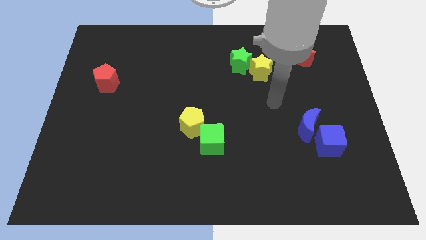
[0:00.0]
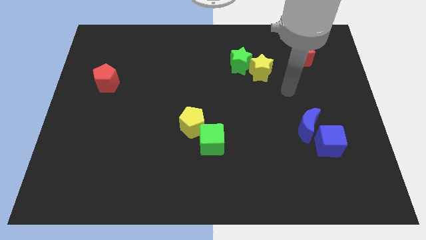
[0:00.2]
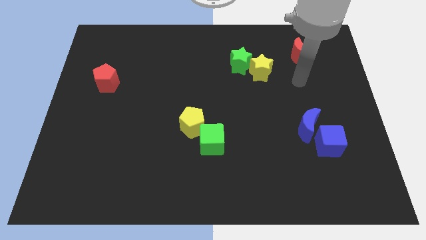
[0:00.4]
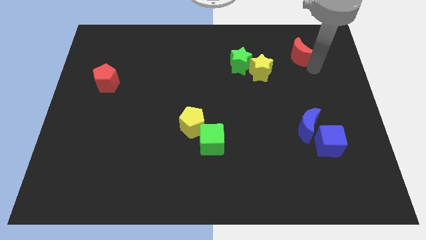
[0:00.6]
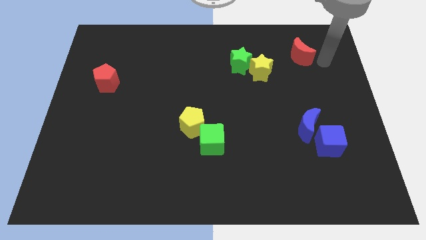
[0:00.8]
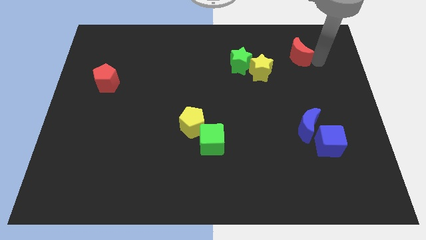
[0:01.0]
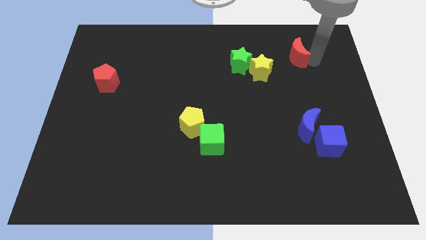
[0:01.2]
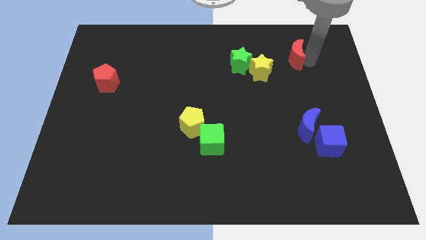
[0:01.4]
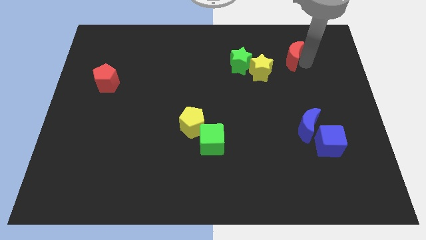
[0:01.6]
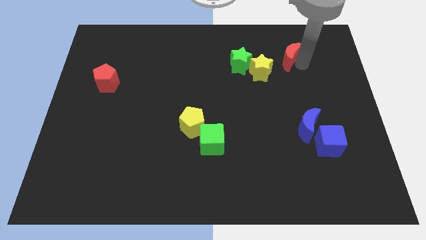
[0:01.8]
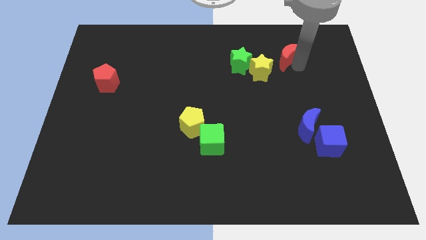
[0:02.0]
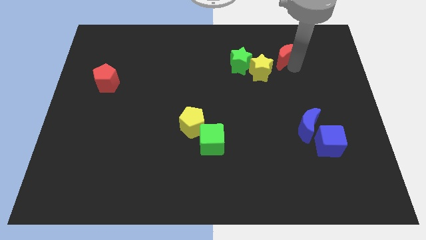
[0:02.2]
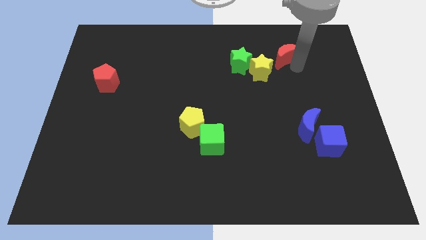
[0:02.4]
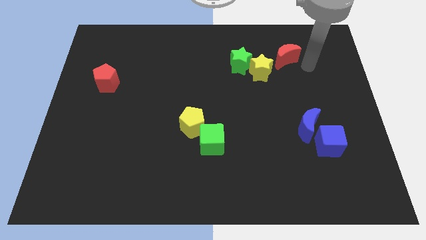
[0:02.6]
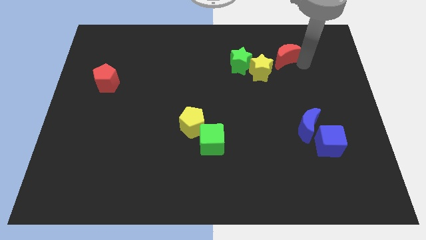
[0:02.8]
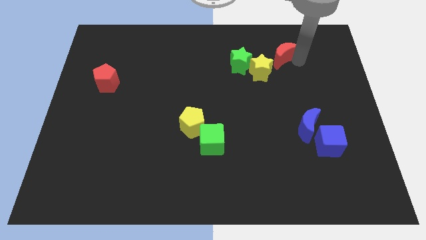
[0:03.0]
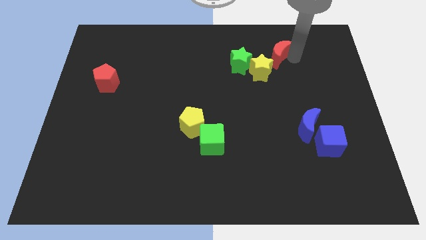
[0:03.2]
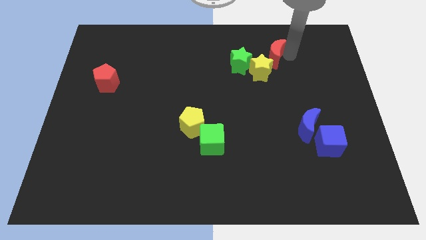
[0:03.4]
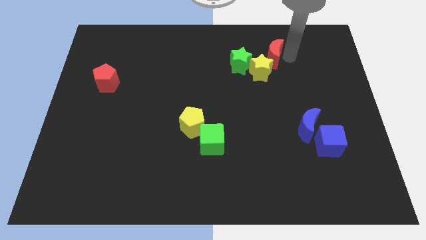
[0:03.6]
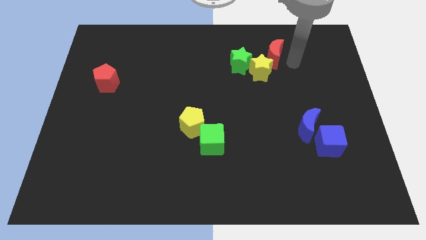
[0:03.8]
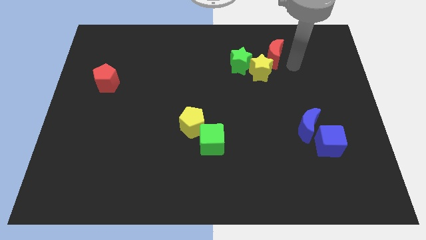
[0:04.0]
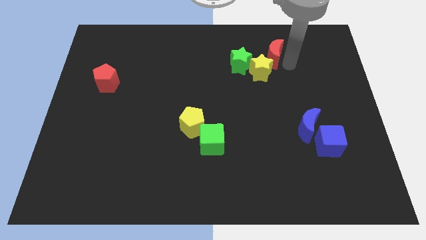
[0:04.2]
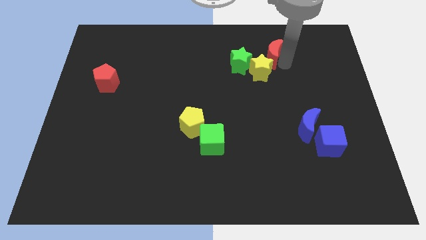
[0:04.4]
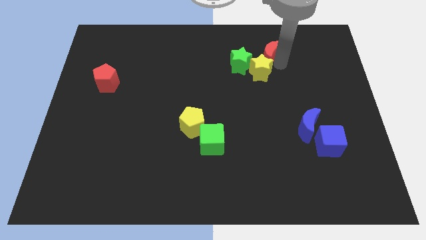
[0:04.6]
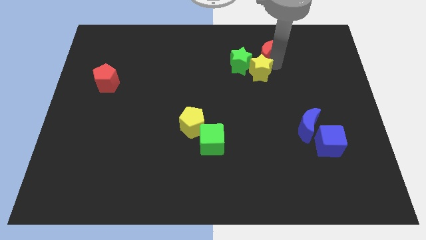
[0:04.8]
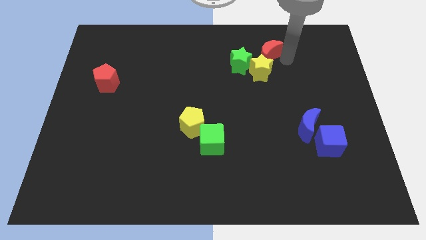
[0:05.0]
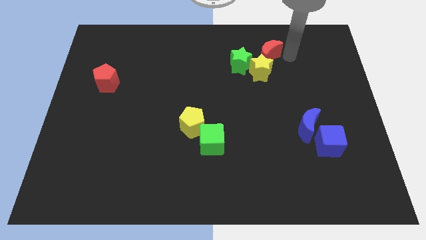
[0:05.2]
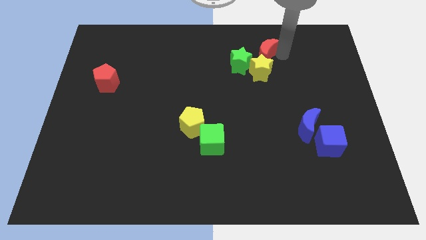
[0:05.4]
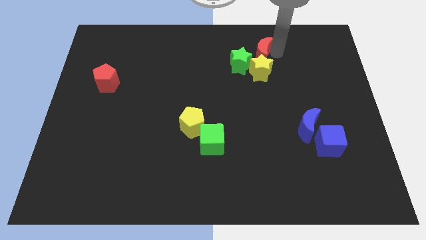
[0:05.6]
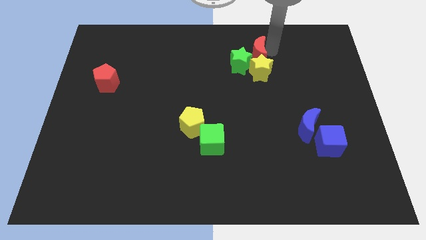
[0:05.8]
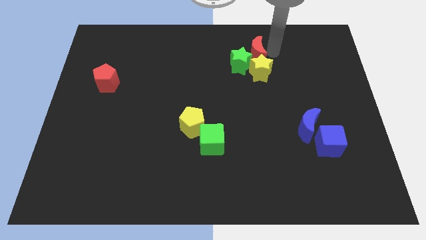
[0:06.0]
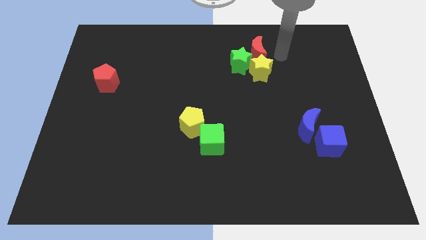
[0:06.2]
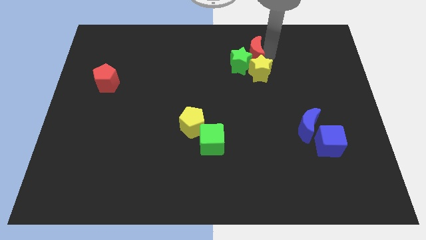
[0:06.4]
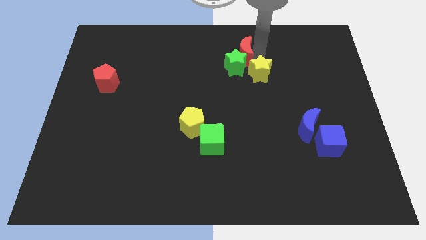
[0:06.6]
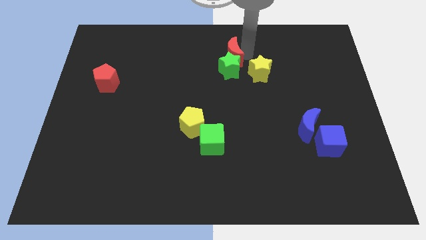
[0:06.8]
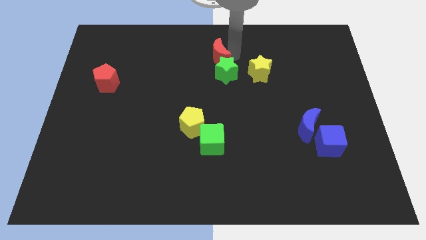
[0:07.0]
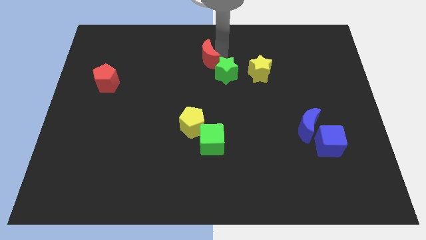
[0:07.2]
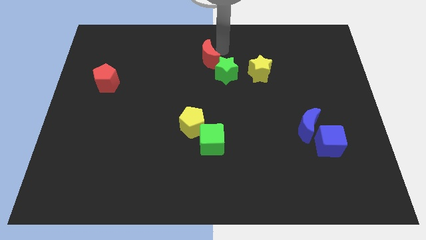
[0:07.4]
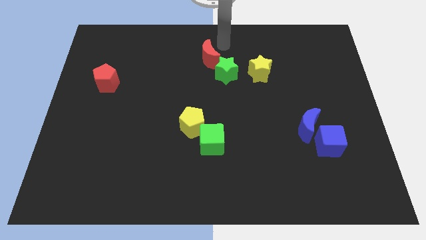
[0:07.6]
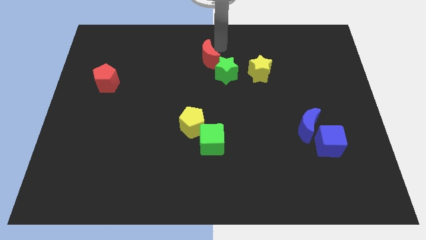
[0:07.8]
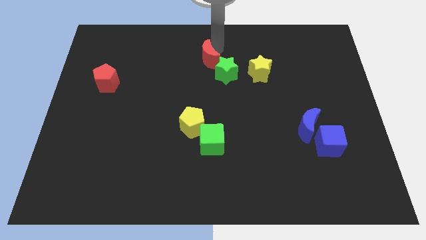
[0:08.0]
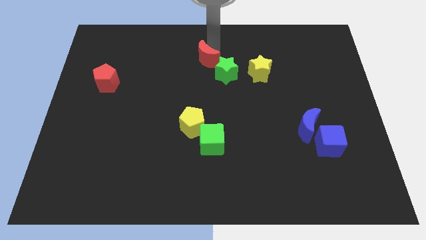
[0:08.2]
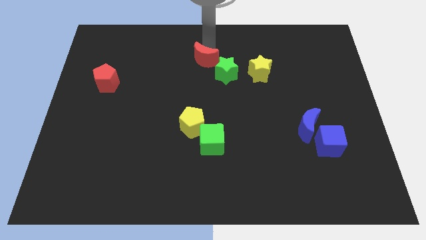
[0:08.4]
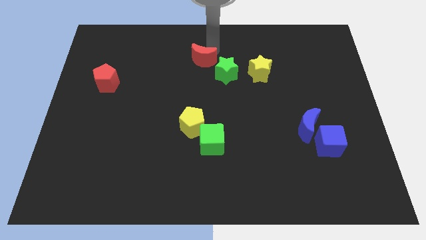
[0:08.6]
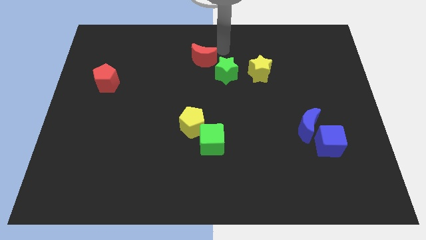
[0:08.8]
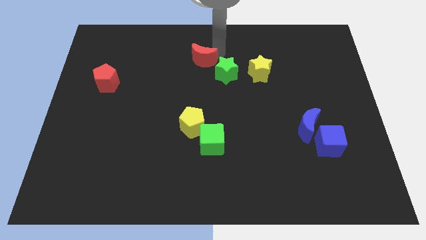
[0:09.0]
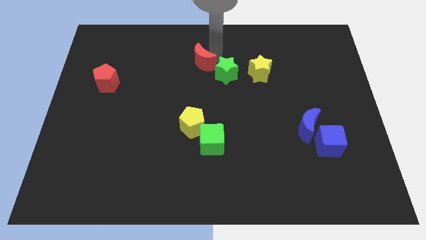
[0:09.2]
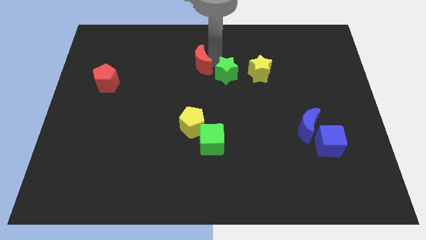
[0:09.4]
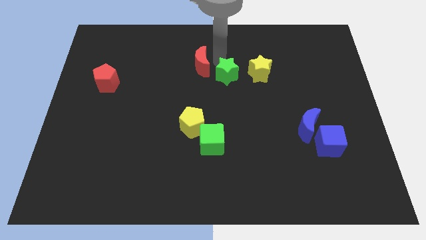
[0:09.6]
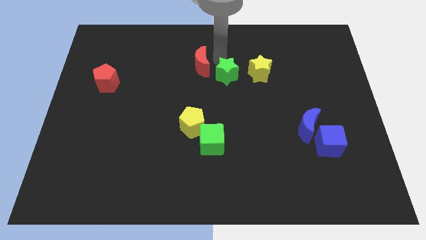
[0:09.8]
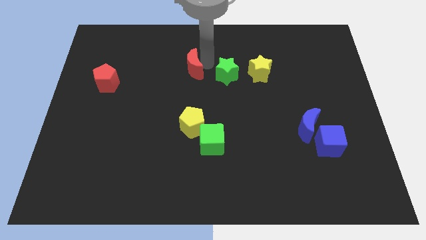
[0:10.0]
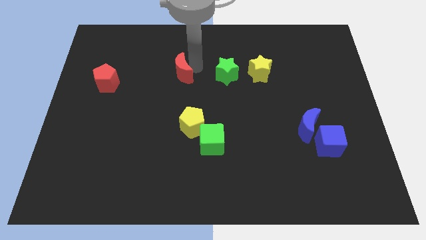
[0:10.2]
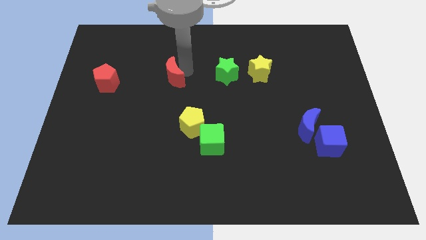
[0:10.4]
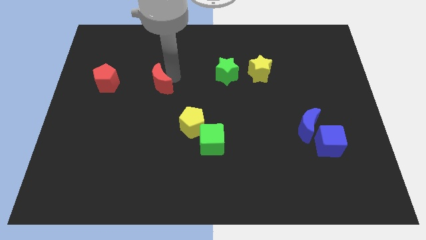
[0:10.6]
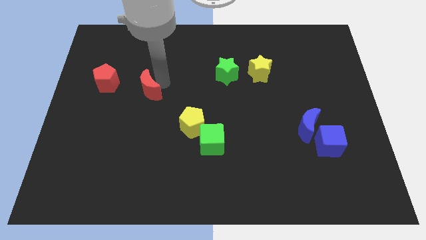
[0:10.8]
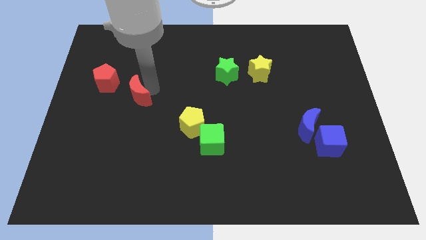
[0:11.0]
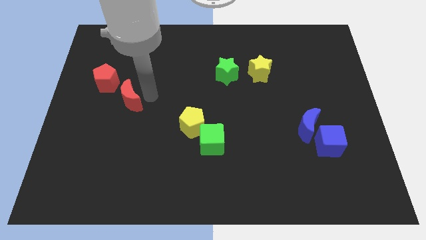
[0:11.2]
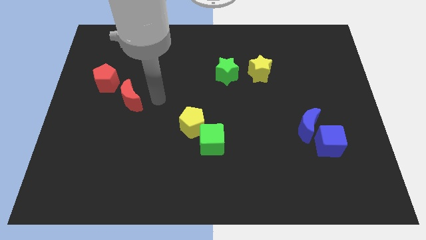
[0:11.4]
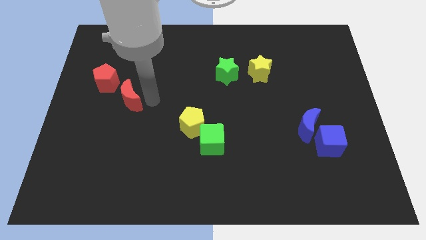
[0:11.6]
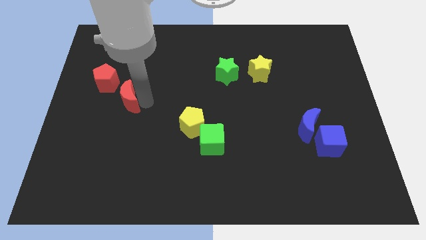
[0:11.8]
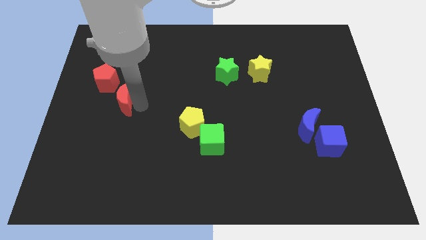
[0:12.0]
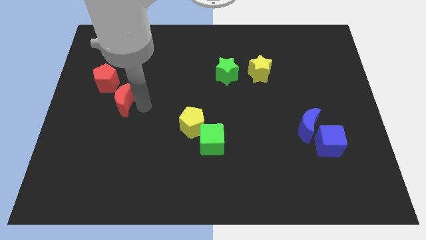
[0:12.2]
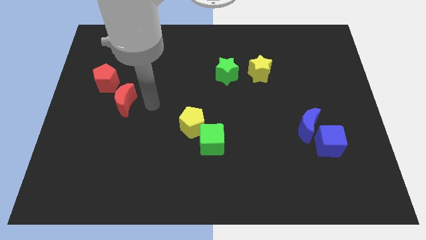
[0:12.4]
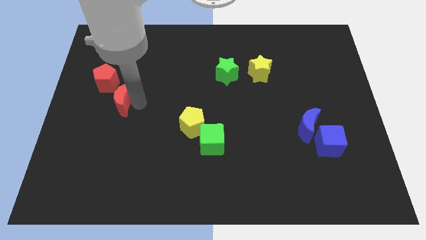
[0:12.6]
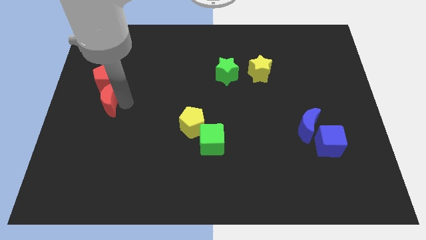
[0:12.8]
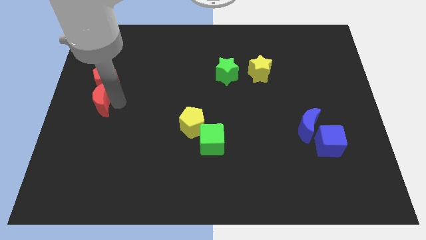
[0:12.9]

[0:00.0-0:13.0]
move the red moon to the left side of the board
